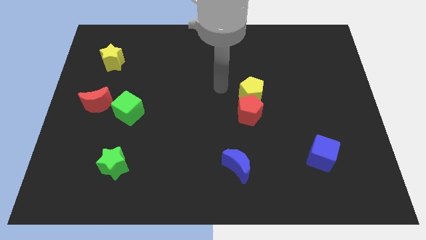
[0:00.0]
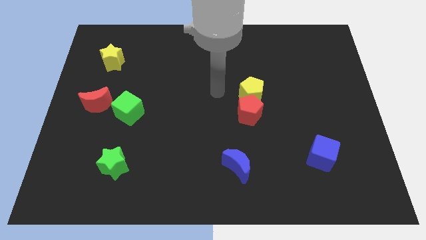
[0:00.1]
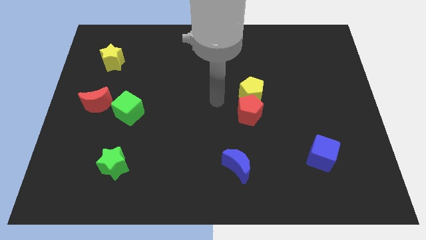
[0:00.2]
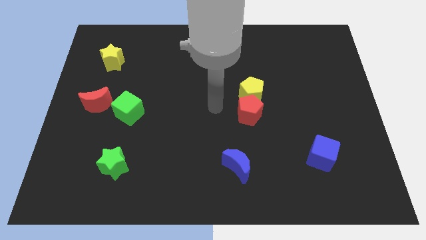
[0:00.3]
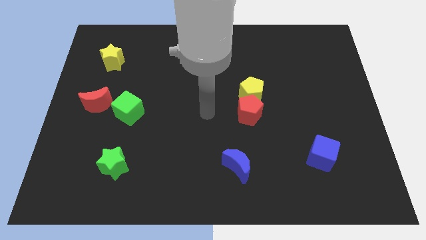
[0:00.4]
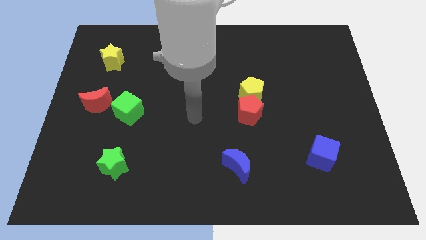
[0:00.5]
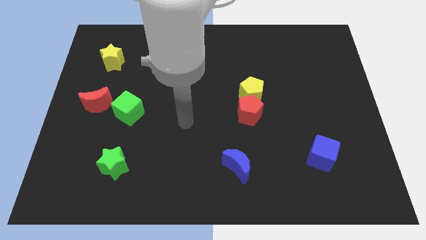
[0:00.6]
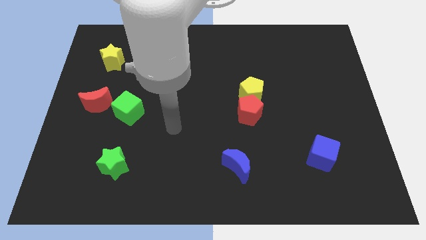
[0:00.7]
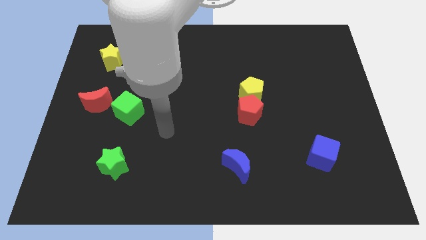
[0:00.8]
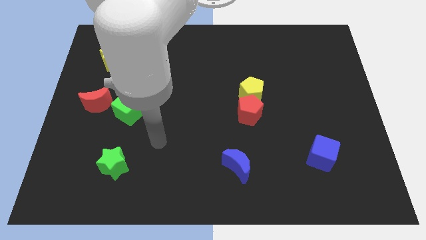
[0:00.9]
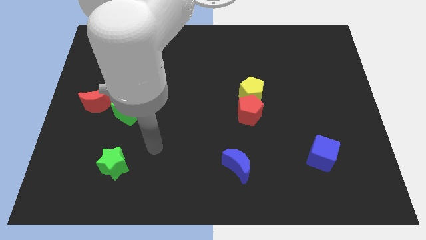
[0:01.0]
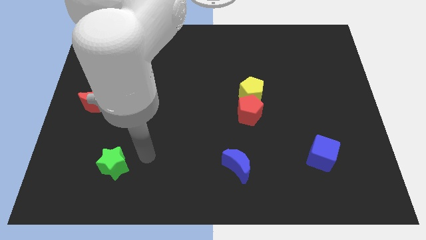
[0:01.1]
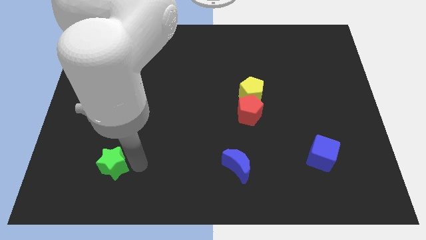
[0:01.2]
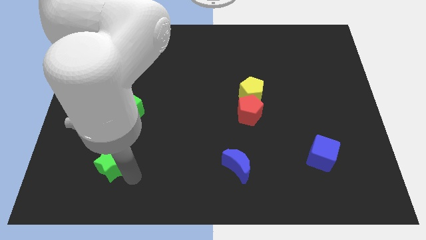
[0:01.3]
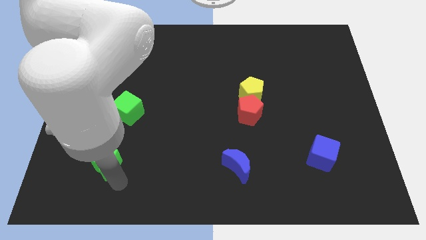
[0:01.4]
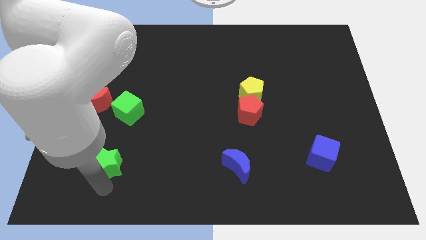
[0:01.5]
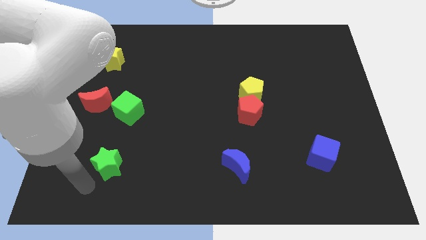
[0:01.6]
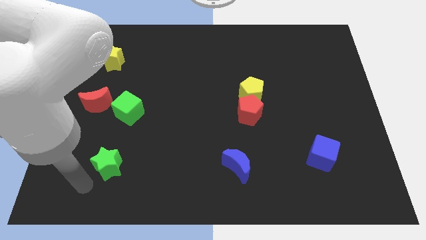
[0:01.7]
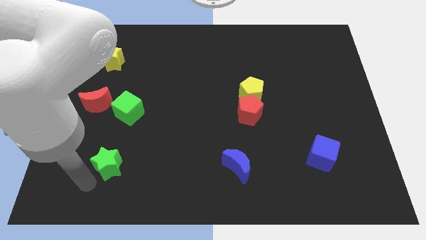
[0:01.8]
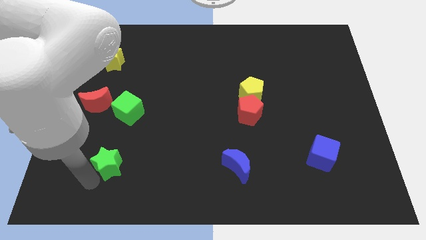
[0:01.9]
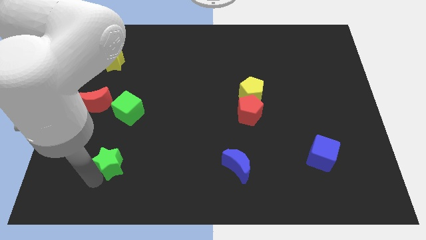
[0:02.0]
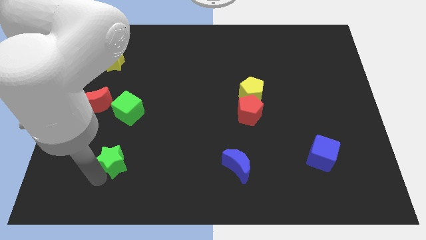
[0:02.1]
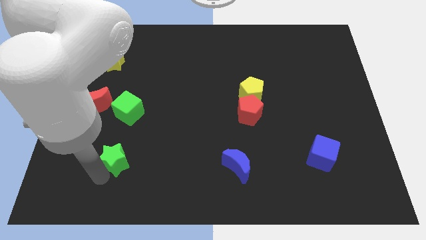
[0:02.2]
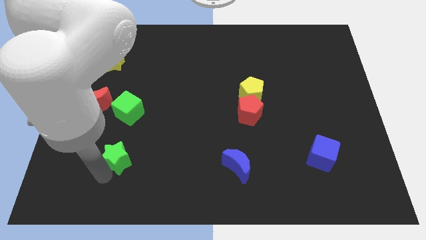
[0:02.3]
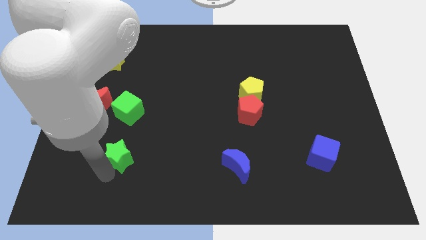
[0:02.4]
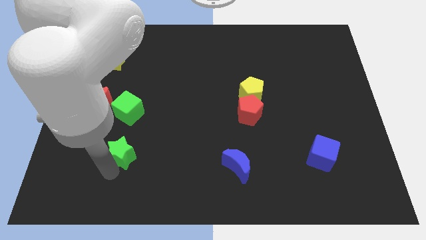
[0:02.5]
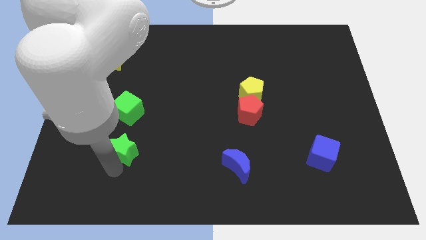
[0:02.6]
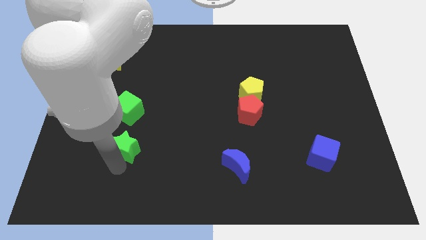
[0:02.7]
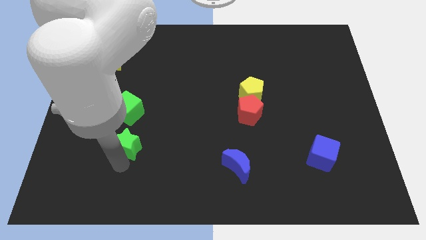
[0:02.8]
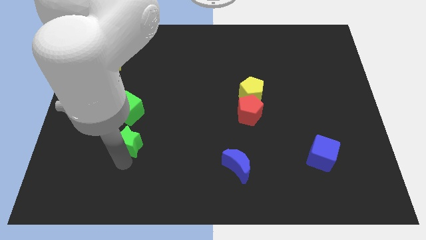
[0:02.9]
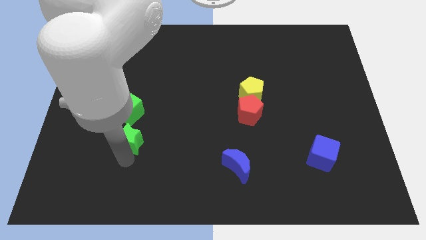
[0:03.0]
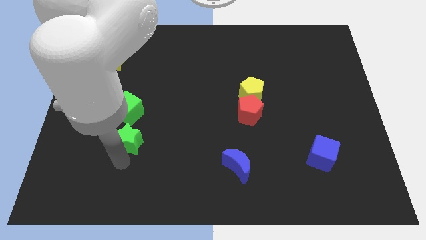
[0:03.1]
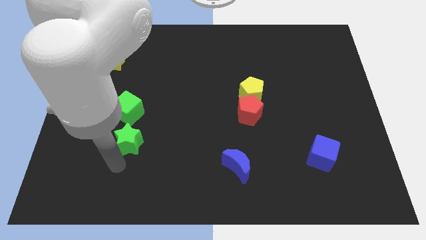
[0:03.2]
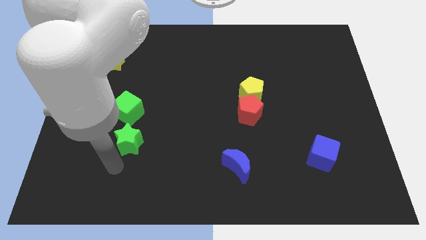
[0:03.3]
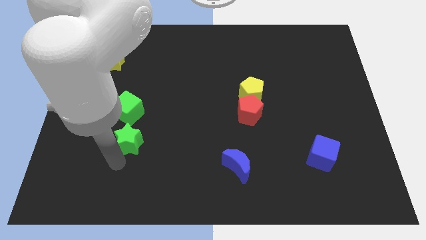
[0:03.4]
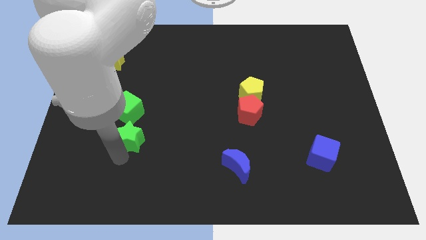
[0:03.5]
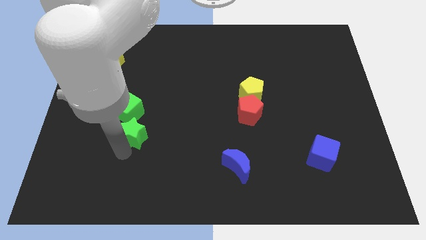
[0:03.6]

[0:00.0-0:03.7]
push the green star a little bit up

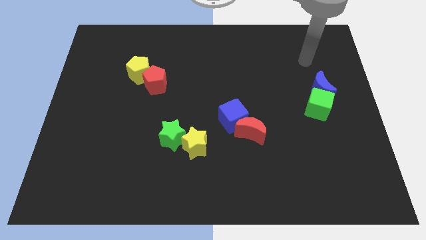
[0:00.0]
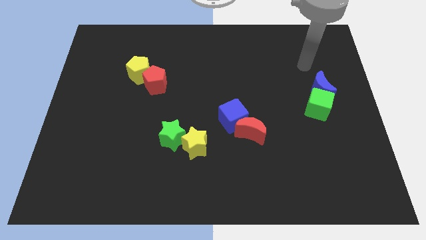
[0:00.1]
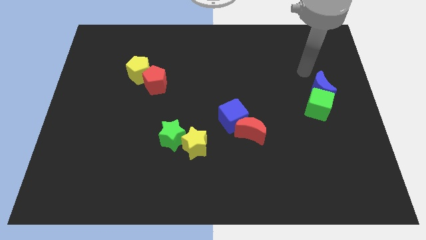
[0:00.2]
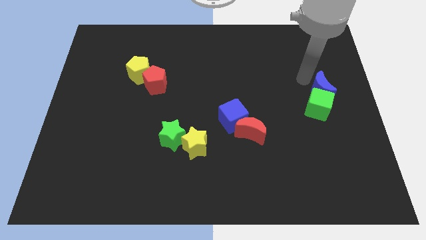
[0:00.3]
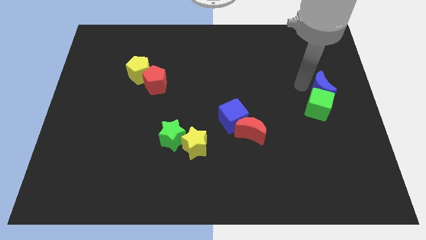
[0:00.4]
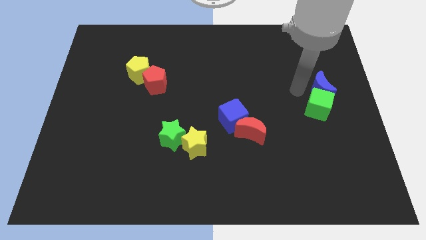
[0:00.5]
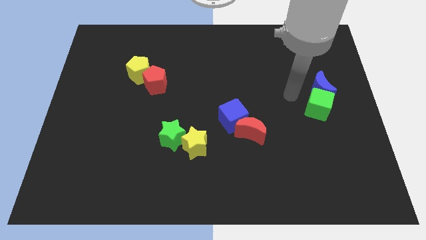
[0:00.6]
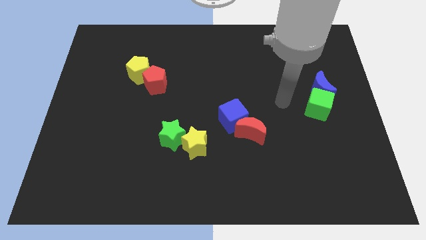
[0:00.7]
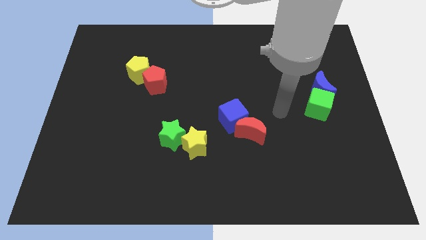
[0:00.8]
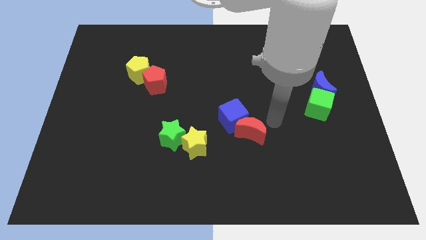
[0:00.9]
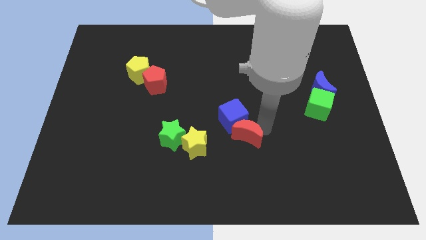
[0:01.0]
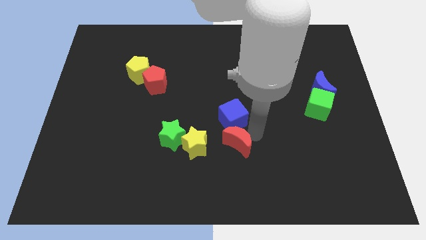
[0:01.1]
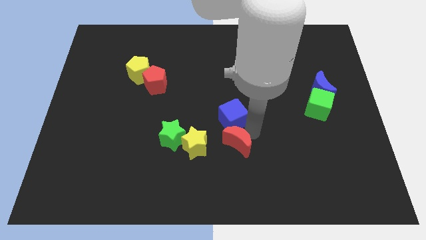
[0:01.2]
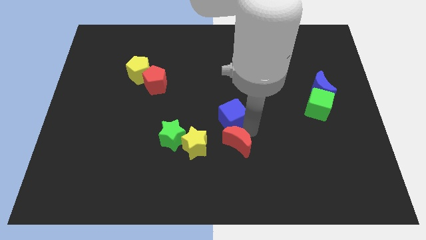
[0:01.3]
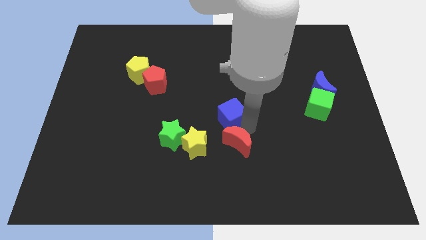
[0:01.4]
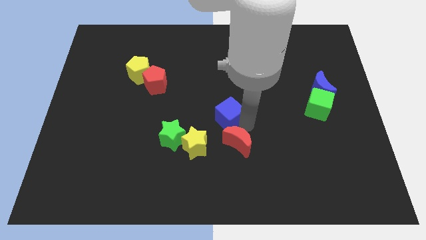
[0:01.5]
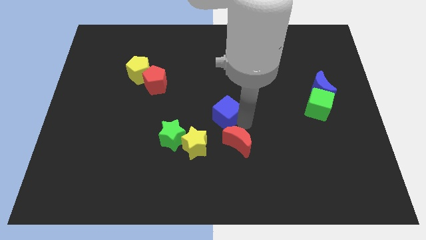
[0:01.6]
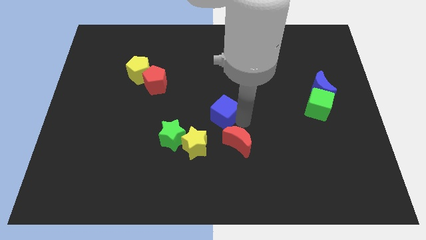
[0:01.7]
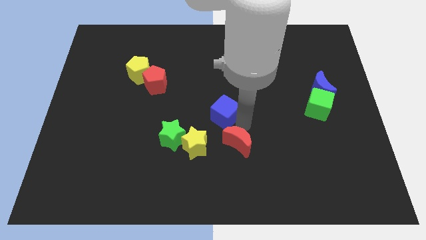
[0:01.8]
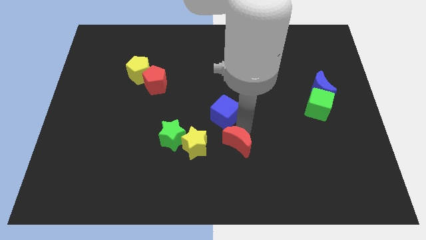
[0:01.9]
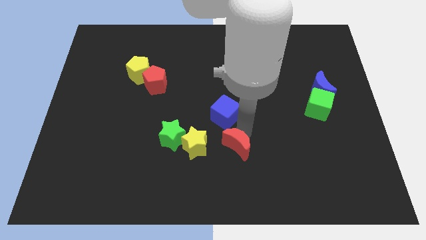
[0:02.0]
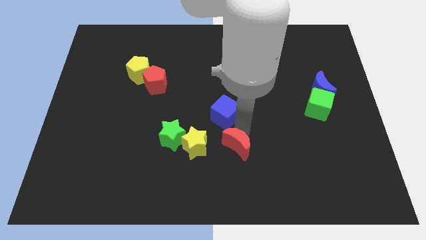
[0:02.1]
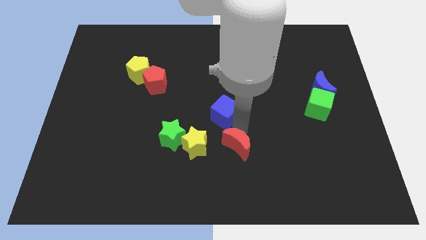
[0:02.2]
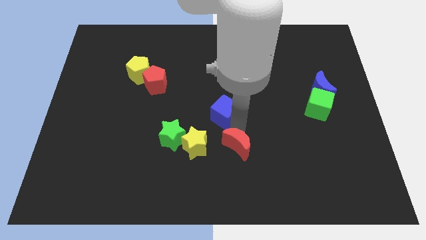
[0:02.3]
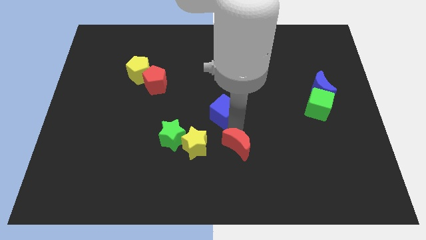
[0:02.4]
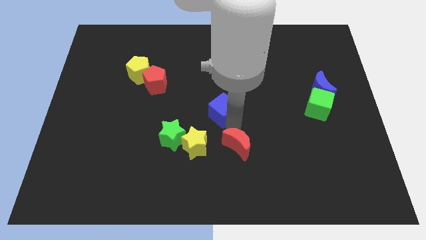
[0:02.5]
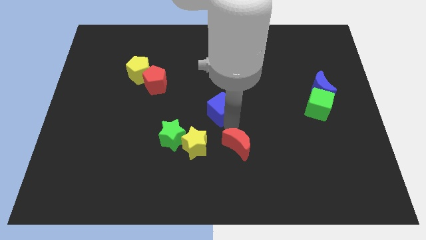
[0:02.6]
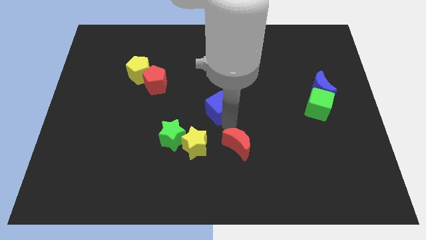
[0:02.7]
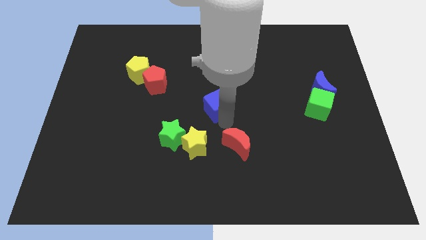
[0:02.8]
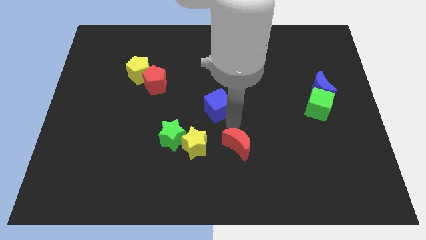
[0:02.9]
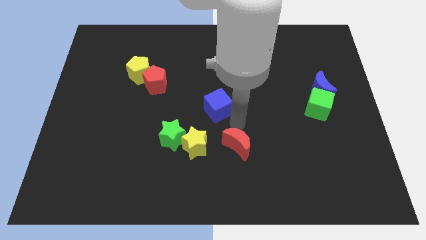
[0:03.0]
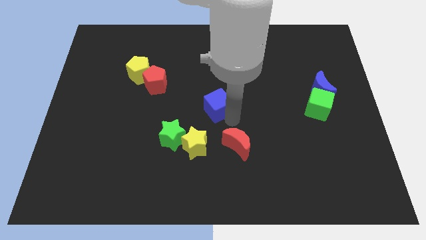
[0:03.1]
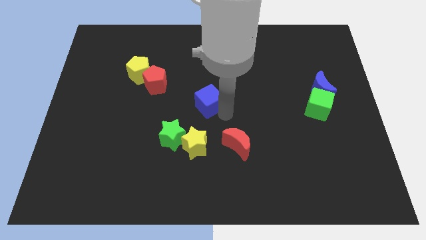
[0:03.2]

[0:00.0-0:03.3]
push the blue cube somewhat upwards and to the left

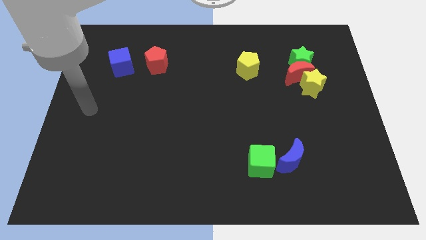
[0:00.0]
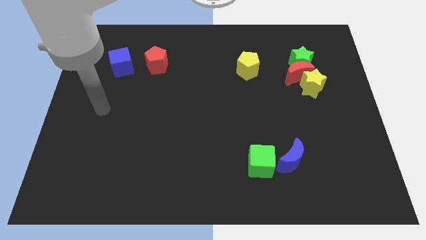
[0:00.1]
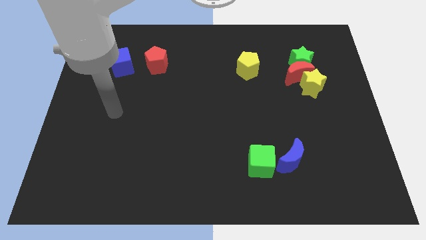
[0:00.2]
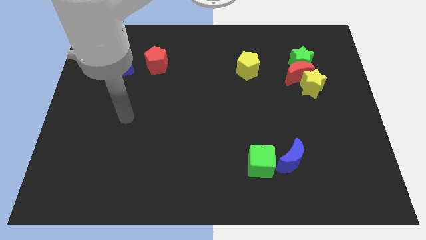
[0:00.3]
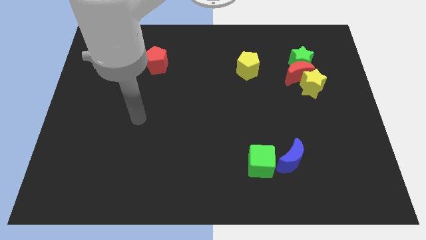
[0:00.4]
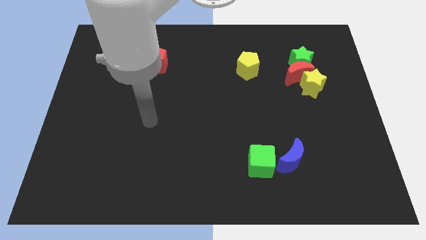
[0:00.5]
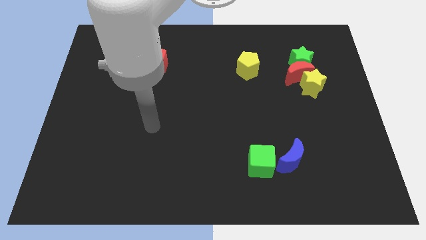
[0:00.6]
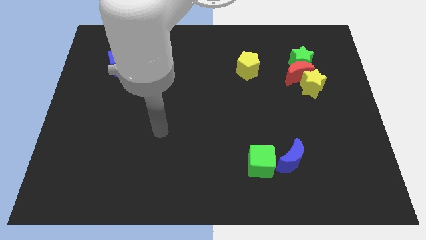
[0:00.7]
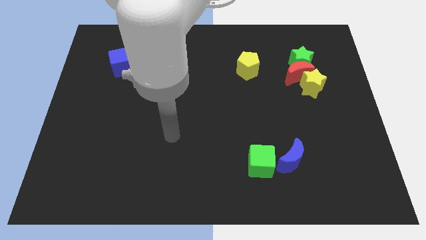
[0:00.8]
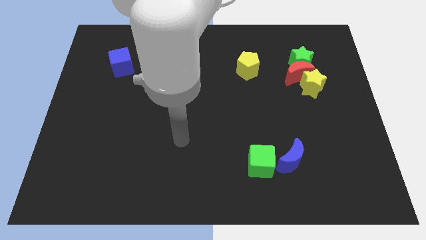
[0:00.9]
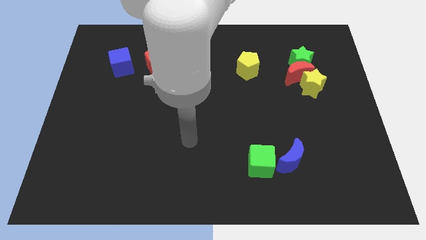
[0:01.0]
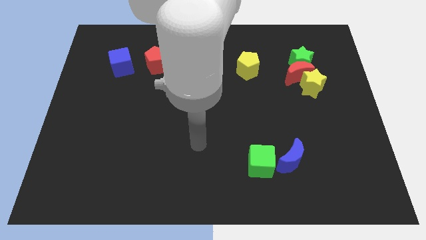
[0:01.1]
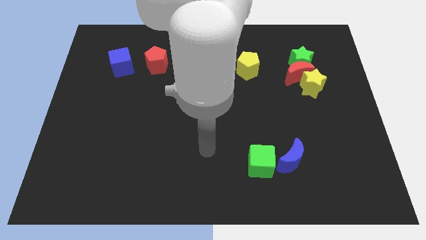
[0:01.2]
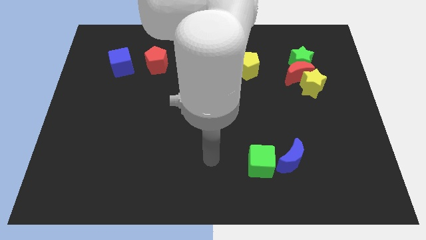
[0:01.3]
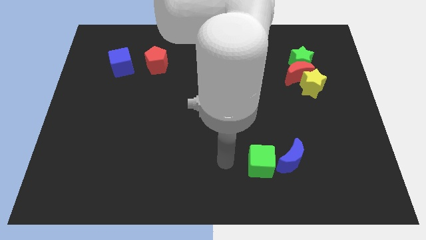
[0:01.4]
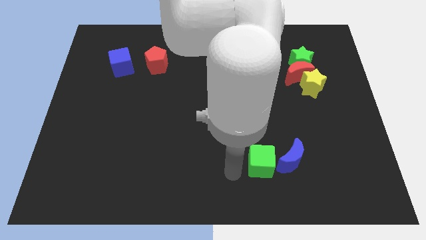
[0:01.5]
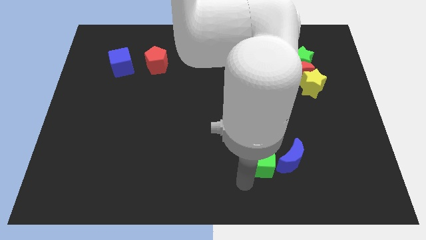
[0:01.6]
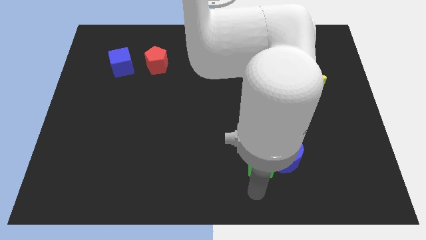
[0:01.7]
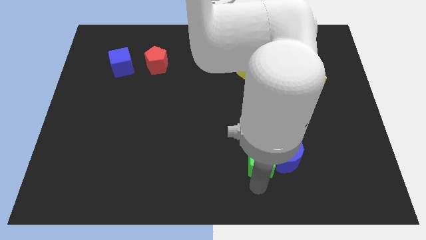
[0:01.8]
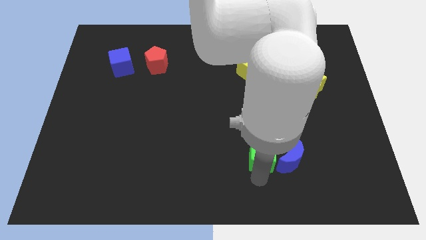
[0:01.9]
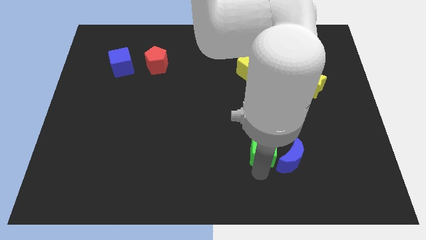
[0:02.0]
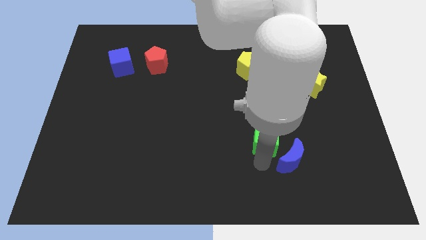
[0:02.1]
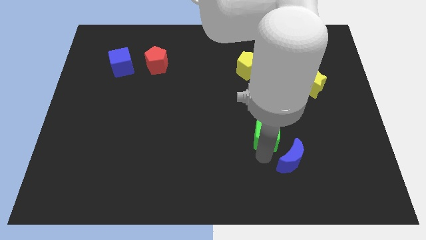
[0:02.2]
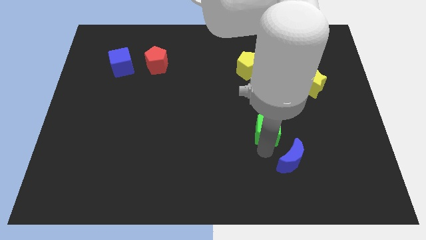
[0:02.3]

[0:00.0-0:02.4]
slightly push the green cube up
